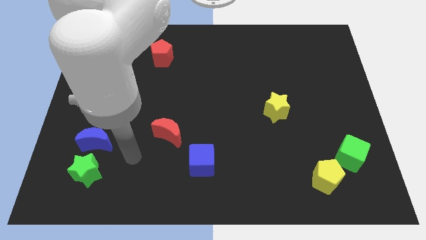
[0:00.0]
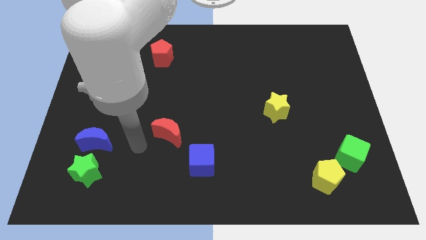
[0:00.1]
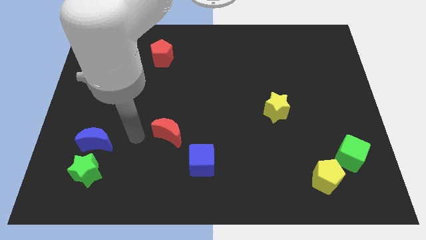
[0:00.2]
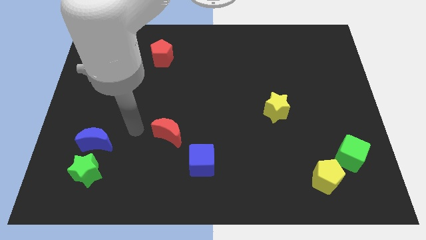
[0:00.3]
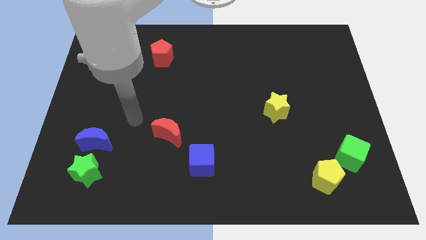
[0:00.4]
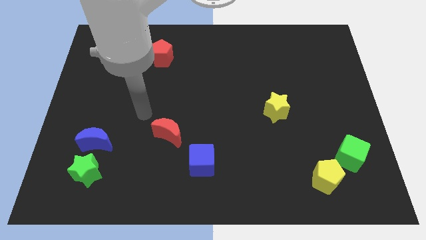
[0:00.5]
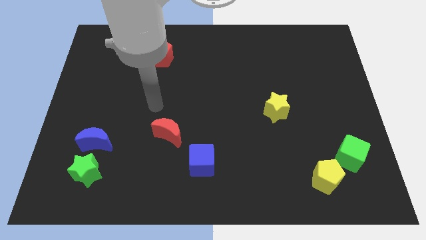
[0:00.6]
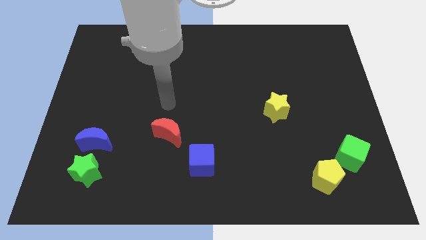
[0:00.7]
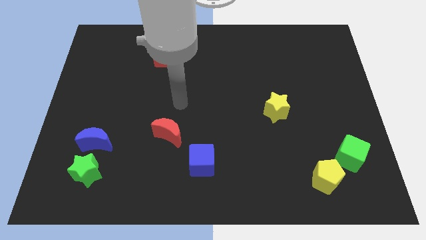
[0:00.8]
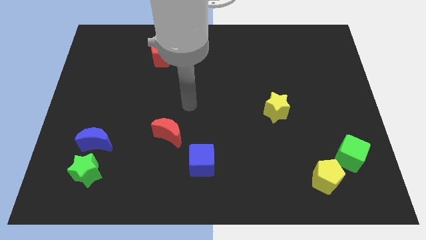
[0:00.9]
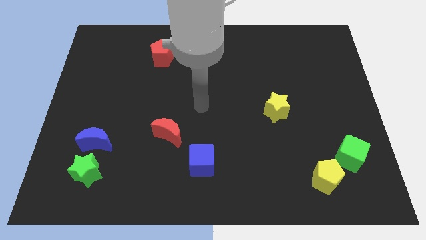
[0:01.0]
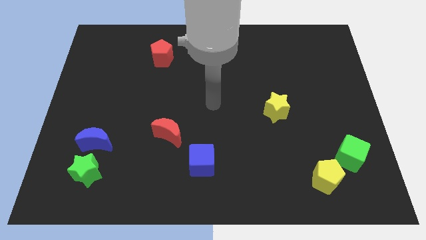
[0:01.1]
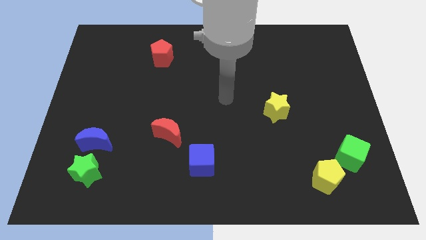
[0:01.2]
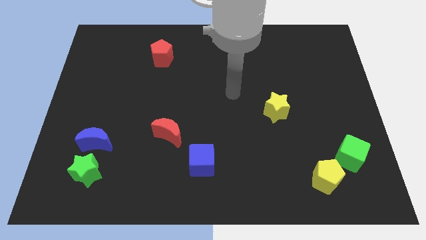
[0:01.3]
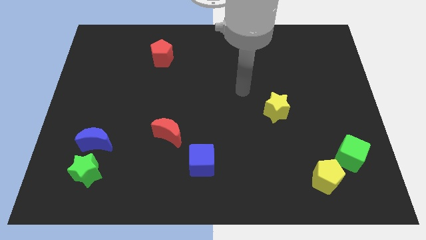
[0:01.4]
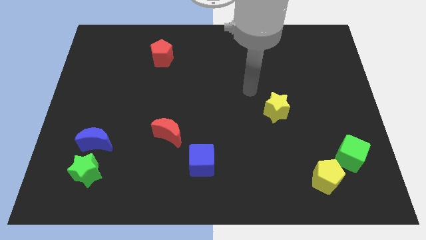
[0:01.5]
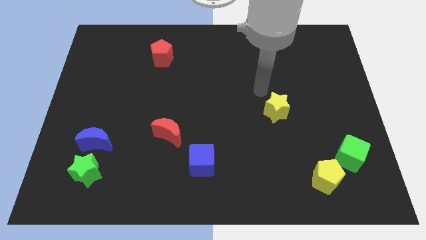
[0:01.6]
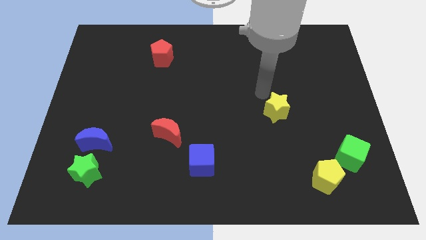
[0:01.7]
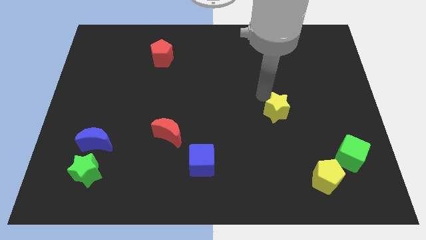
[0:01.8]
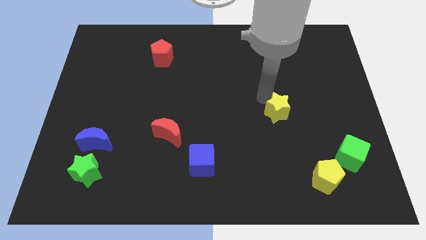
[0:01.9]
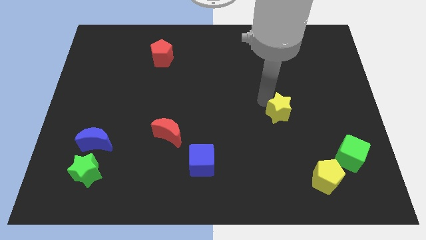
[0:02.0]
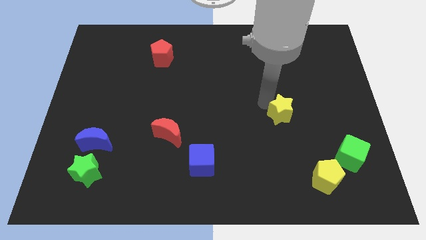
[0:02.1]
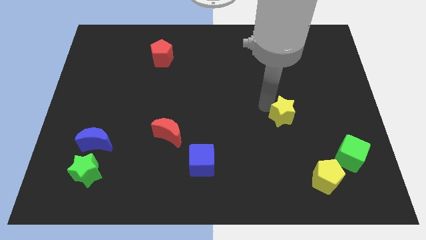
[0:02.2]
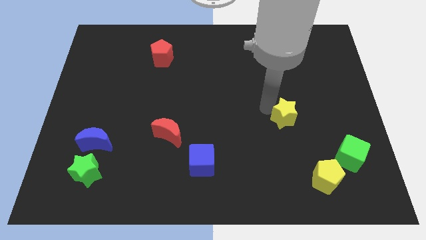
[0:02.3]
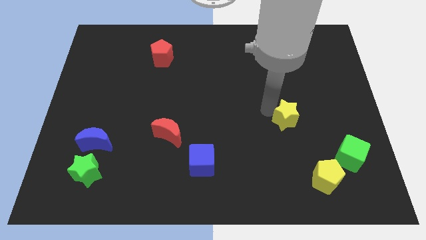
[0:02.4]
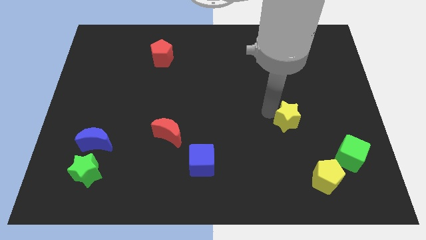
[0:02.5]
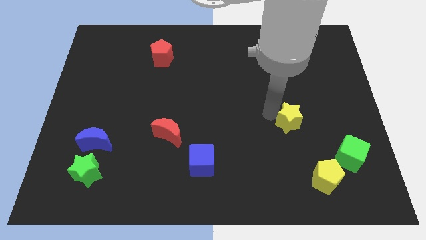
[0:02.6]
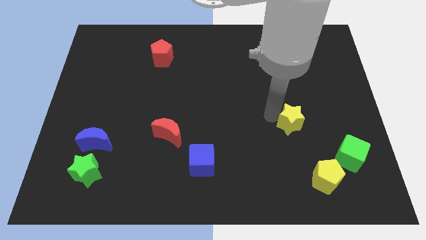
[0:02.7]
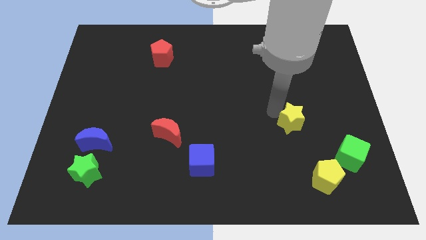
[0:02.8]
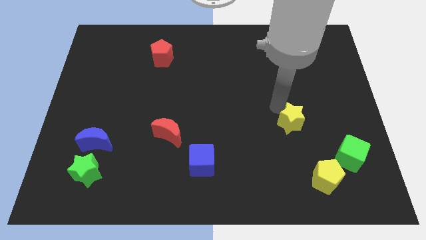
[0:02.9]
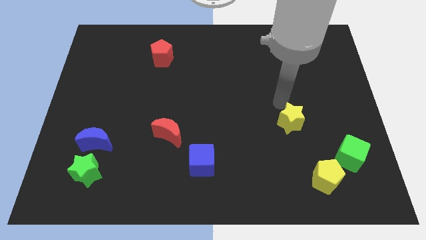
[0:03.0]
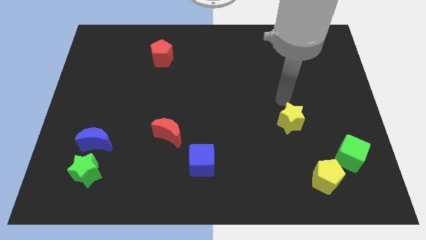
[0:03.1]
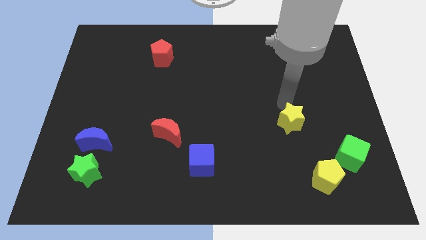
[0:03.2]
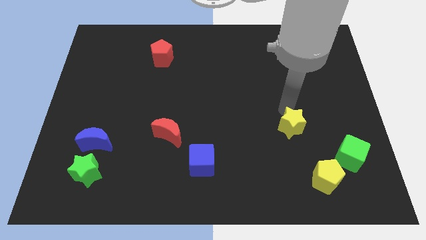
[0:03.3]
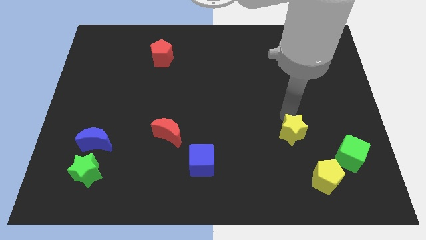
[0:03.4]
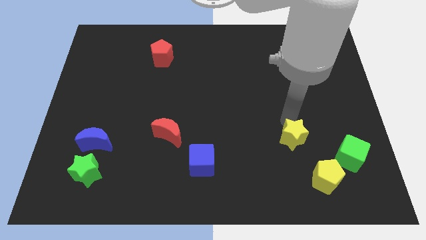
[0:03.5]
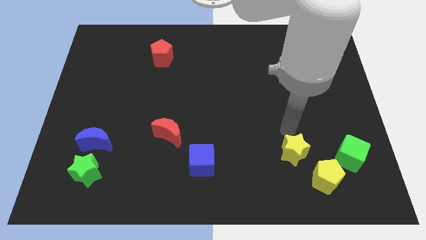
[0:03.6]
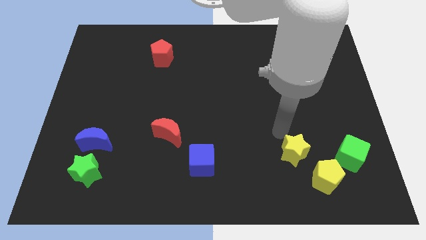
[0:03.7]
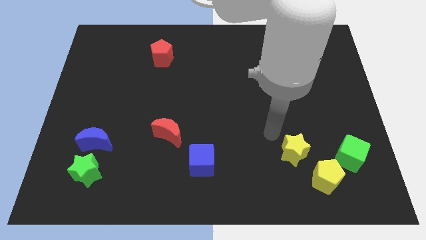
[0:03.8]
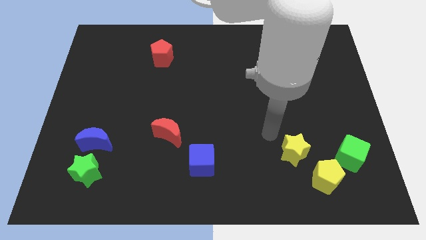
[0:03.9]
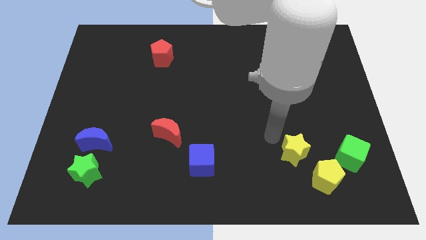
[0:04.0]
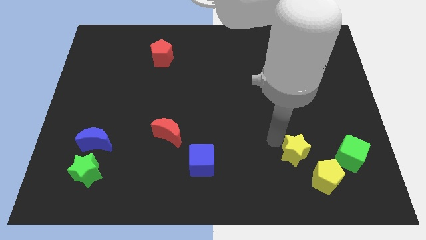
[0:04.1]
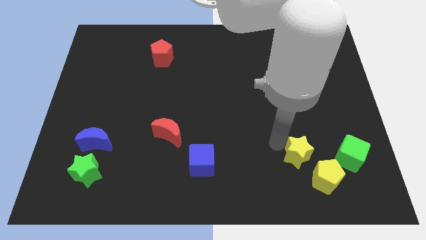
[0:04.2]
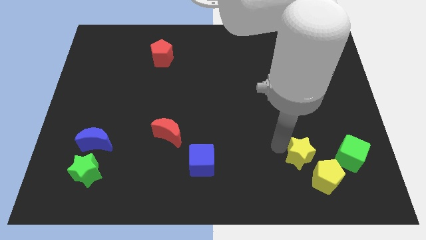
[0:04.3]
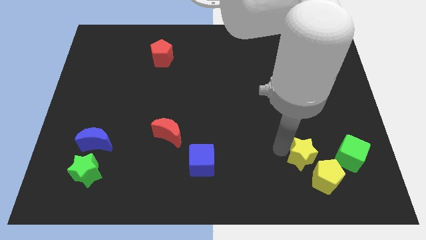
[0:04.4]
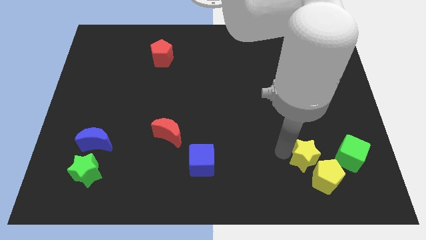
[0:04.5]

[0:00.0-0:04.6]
move the yellow star to the yellow pentagon

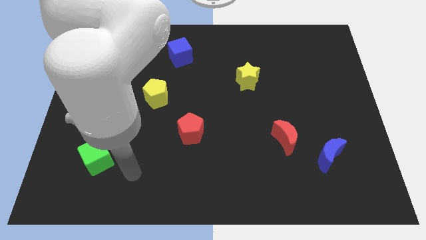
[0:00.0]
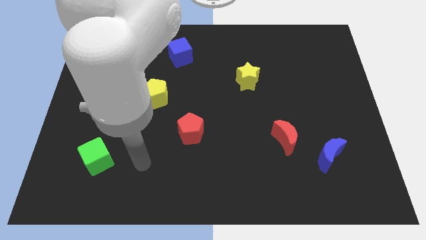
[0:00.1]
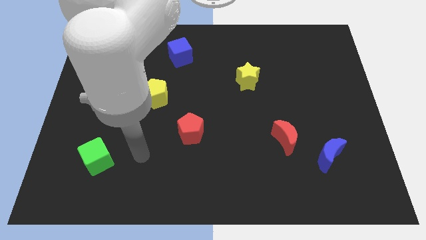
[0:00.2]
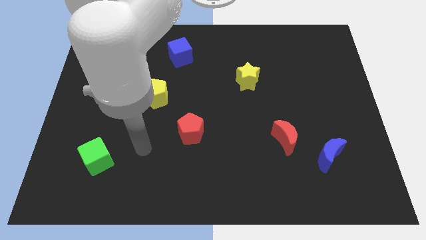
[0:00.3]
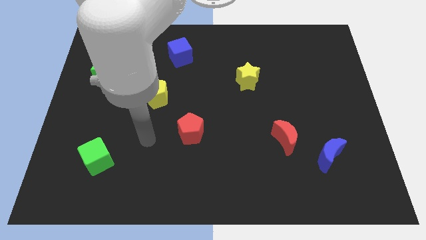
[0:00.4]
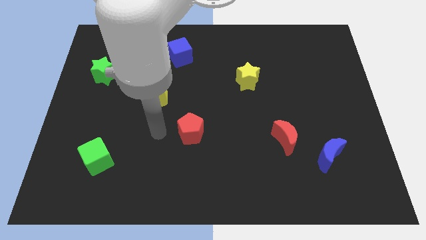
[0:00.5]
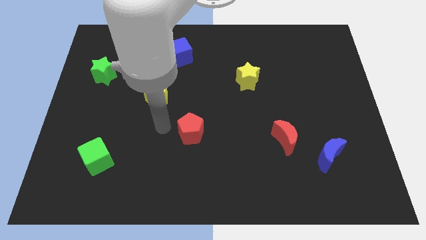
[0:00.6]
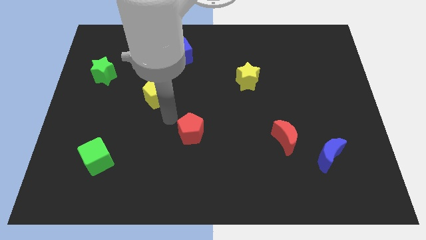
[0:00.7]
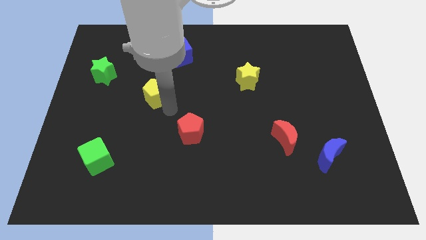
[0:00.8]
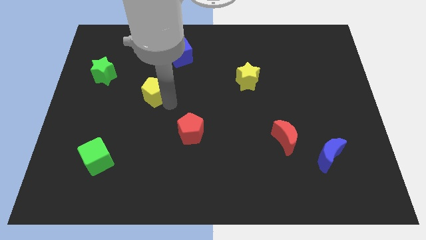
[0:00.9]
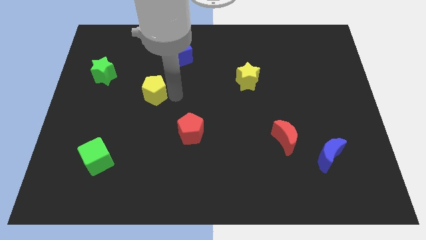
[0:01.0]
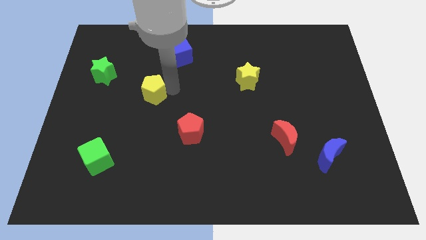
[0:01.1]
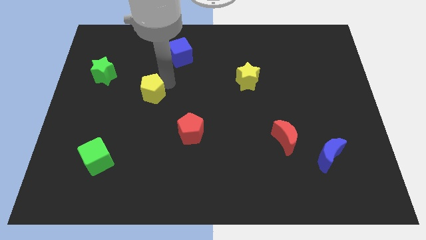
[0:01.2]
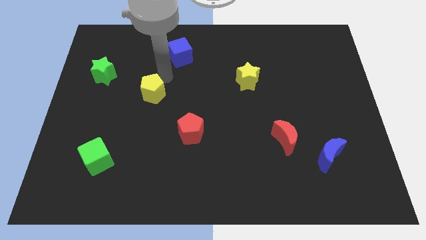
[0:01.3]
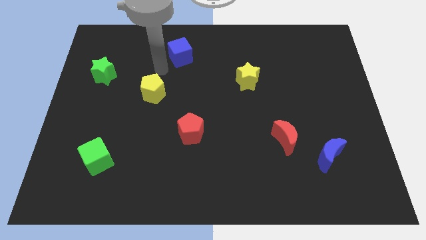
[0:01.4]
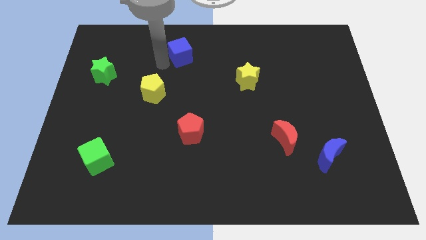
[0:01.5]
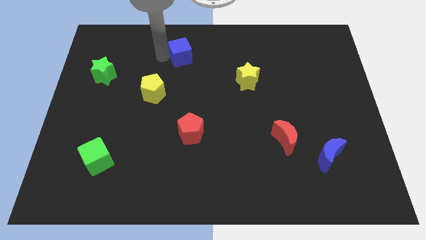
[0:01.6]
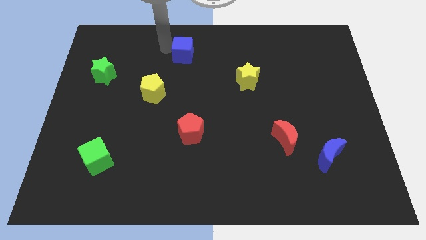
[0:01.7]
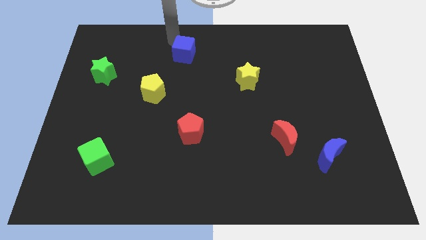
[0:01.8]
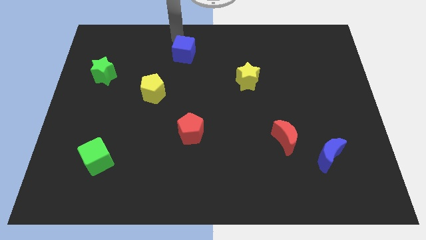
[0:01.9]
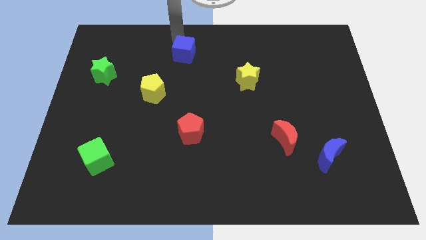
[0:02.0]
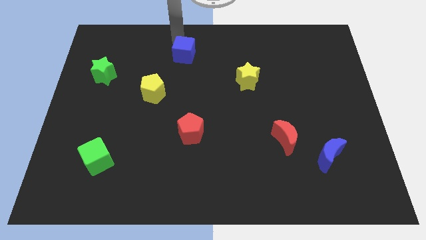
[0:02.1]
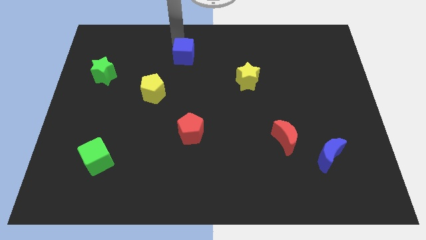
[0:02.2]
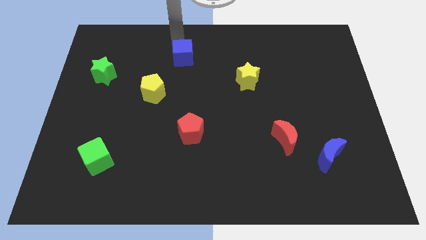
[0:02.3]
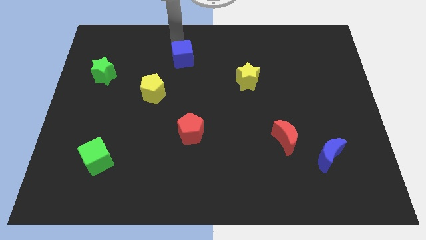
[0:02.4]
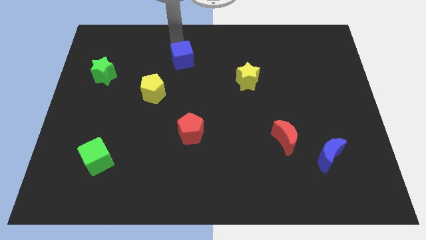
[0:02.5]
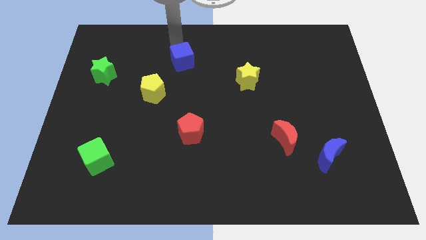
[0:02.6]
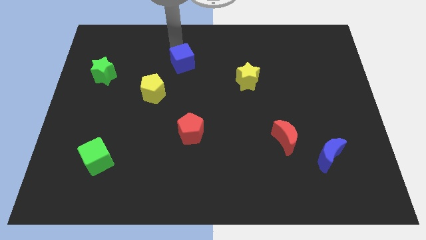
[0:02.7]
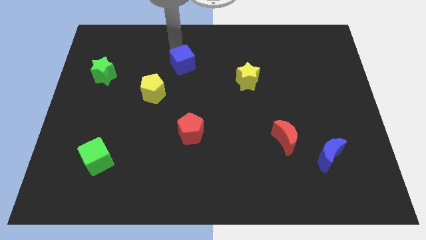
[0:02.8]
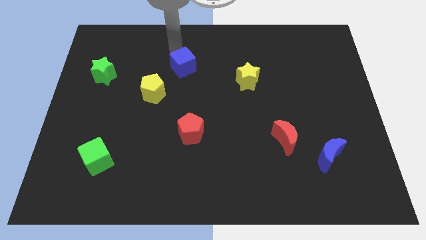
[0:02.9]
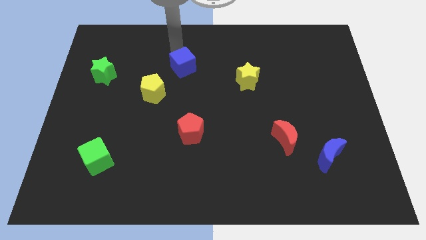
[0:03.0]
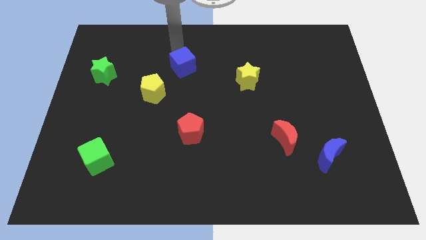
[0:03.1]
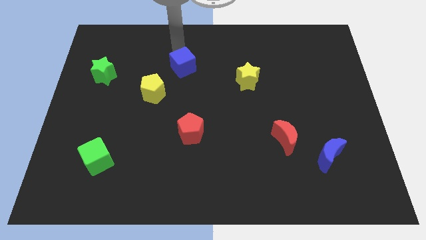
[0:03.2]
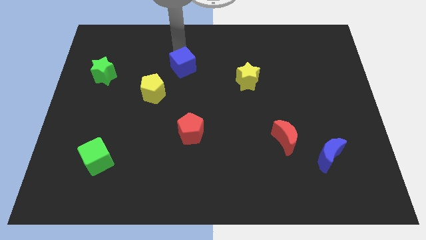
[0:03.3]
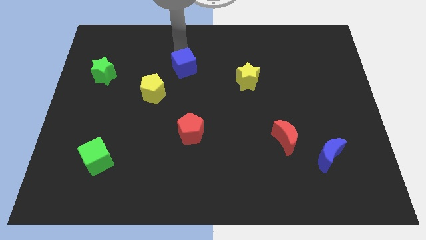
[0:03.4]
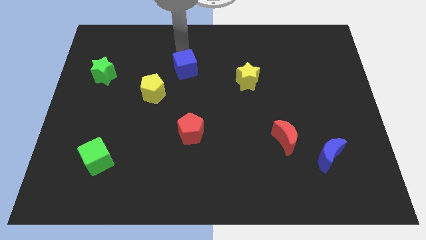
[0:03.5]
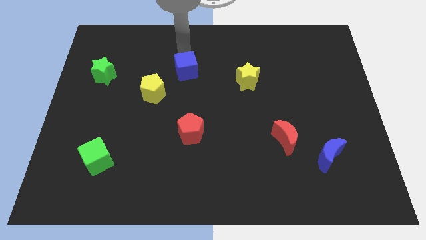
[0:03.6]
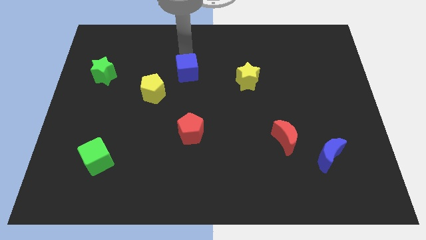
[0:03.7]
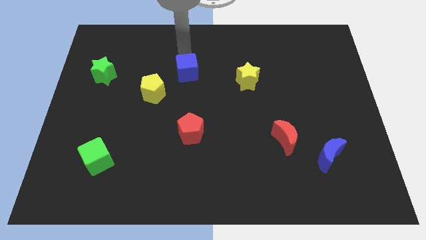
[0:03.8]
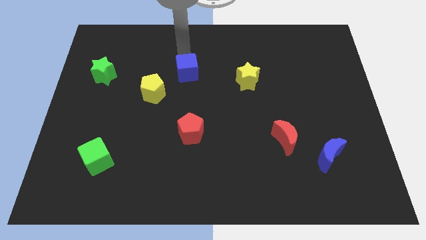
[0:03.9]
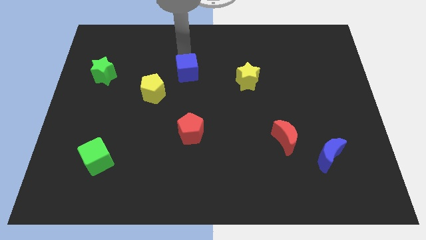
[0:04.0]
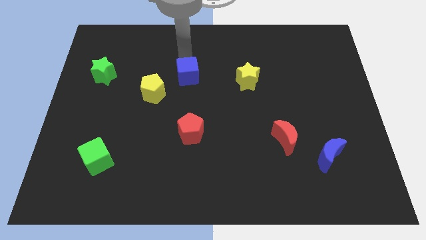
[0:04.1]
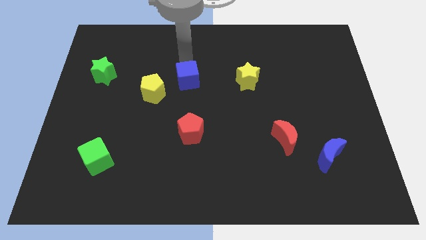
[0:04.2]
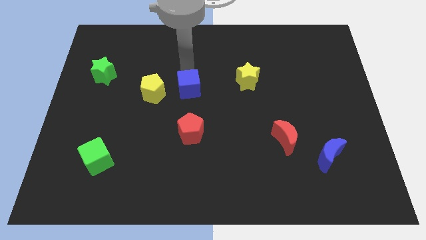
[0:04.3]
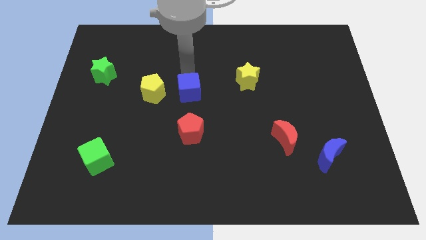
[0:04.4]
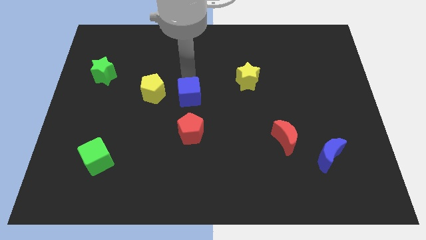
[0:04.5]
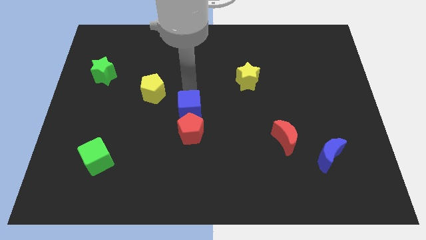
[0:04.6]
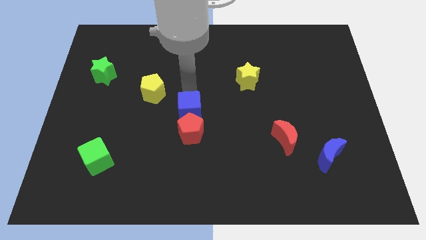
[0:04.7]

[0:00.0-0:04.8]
put the blue cube to the red pentagon
